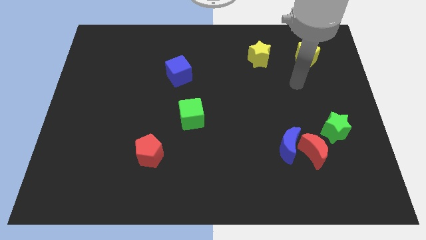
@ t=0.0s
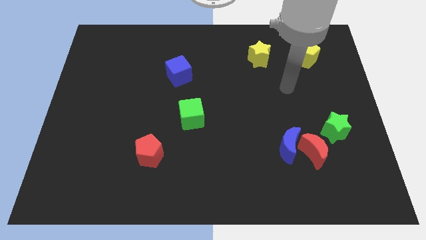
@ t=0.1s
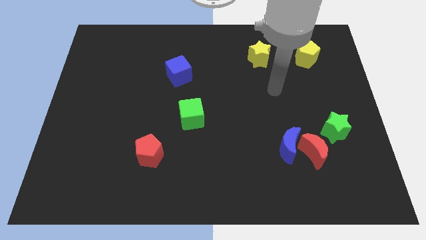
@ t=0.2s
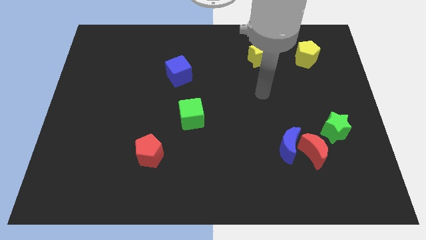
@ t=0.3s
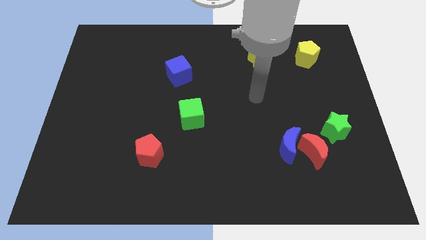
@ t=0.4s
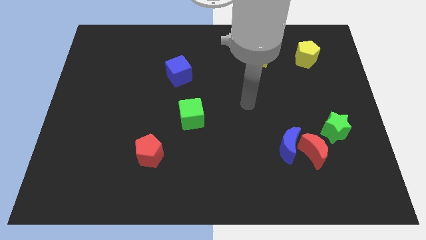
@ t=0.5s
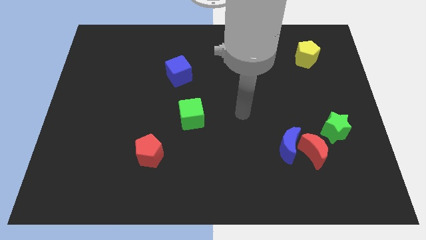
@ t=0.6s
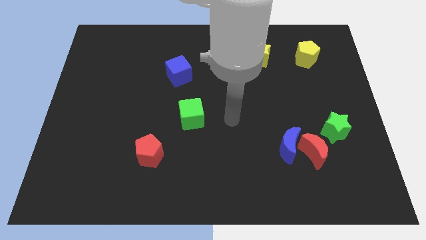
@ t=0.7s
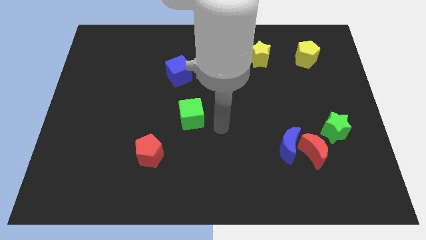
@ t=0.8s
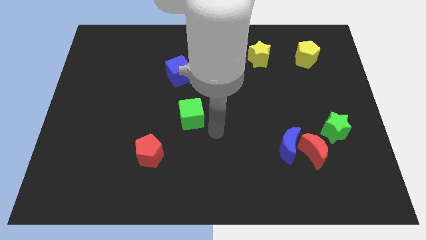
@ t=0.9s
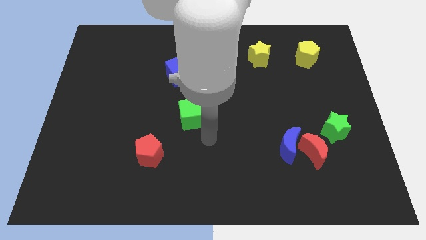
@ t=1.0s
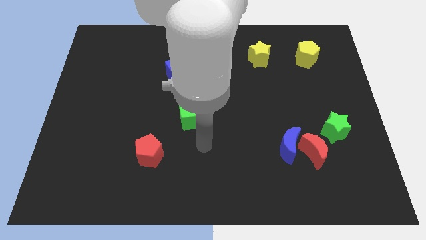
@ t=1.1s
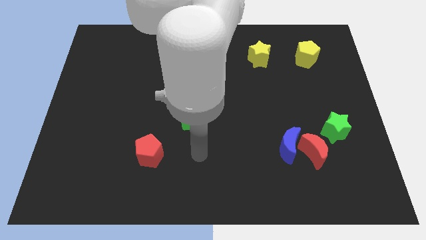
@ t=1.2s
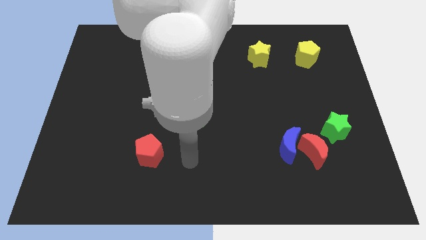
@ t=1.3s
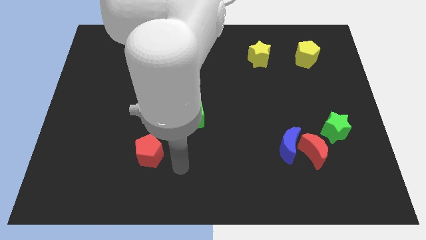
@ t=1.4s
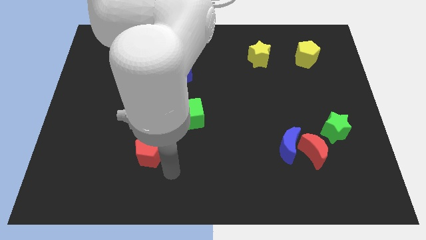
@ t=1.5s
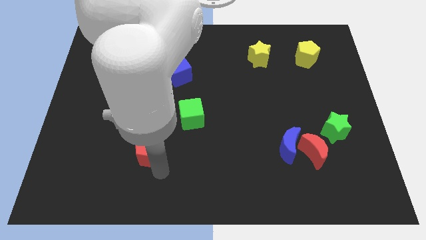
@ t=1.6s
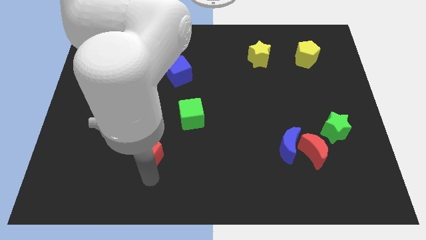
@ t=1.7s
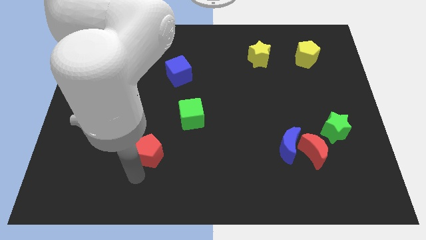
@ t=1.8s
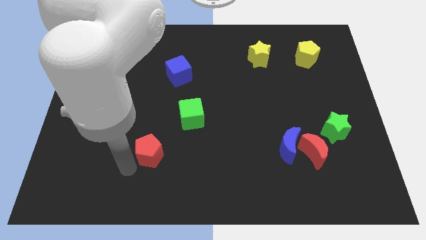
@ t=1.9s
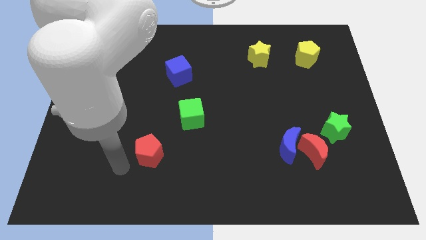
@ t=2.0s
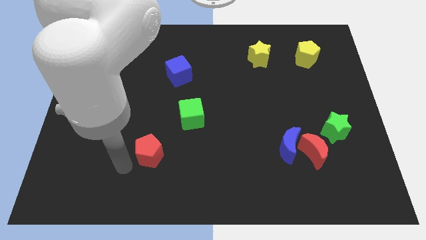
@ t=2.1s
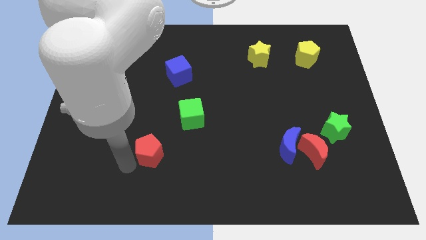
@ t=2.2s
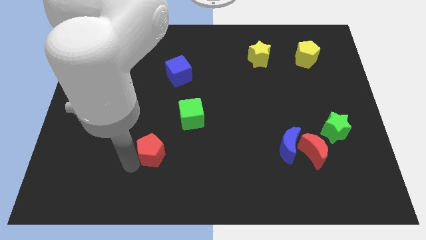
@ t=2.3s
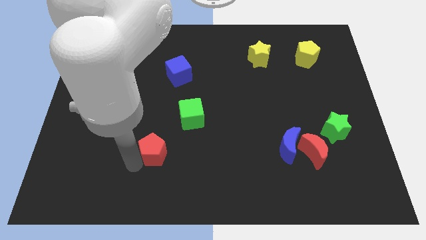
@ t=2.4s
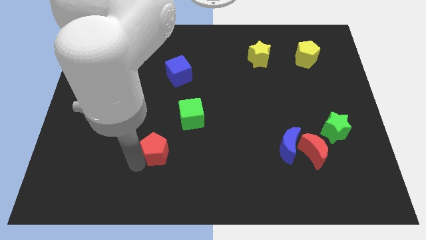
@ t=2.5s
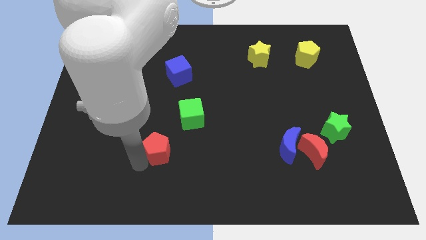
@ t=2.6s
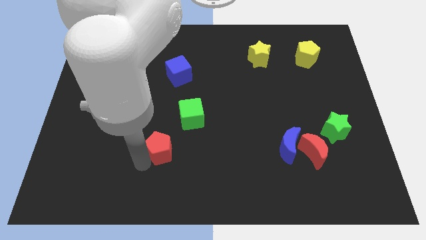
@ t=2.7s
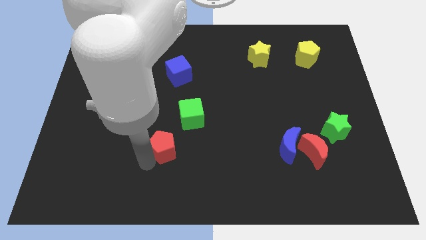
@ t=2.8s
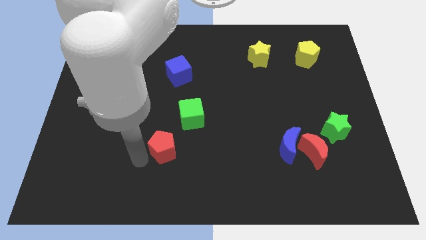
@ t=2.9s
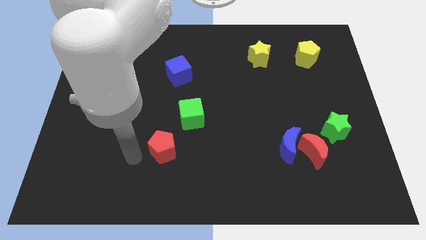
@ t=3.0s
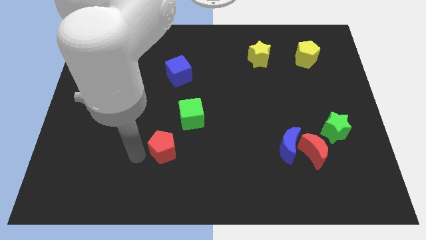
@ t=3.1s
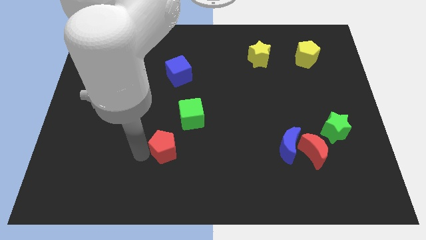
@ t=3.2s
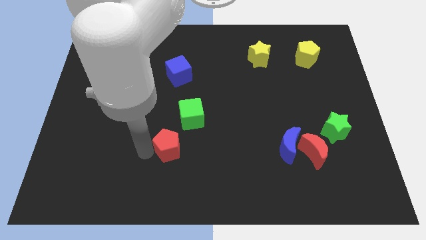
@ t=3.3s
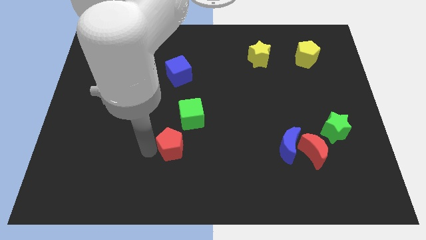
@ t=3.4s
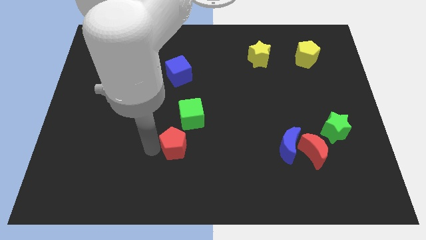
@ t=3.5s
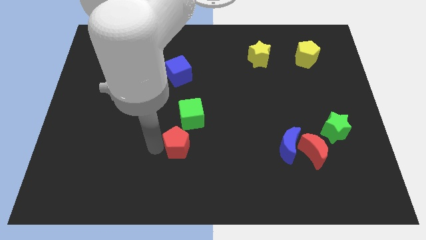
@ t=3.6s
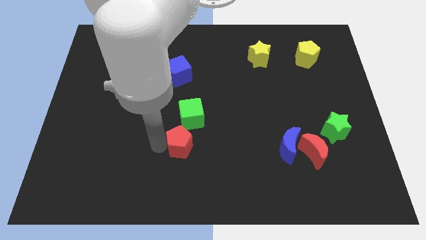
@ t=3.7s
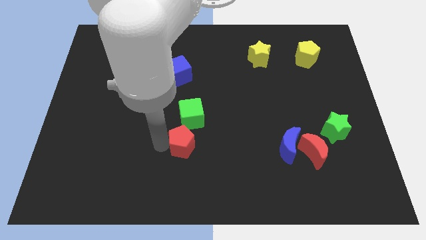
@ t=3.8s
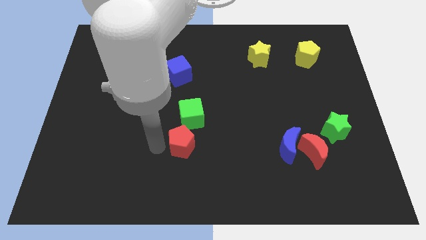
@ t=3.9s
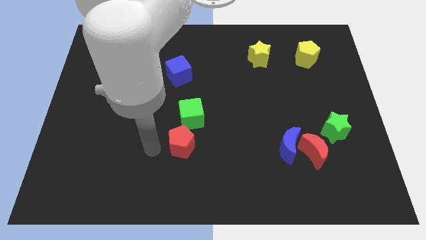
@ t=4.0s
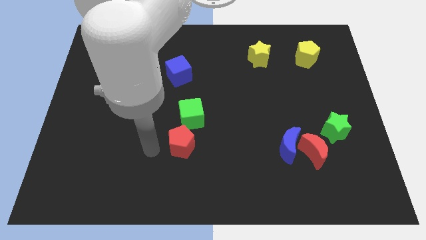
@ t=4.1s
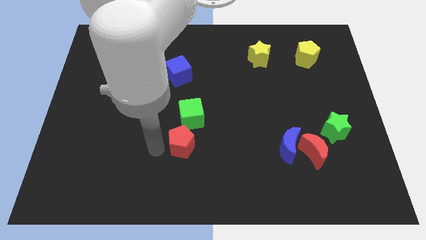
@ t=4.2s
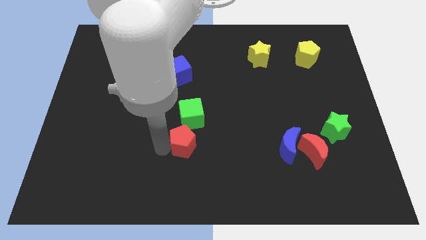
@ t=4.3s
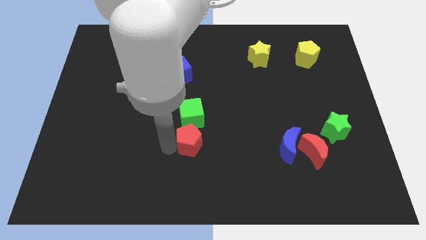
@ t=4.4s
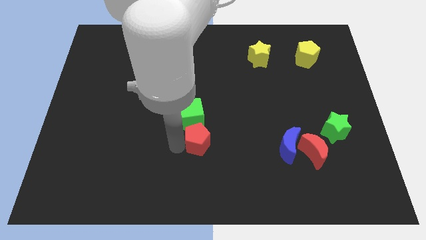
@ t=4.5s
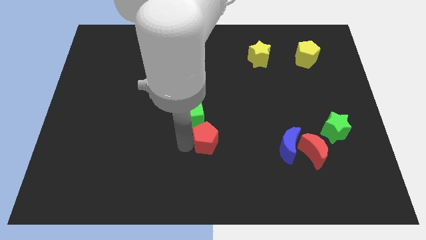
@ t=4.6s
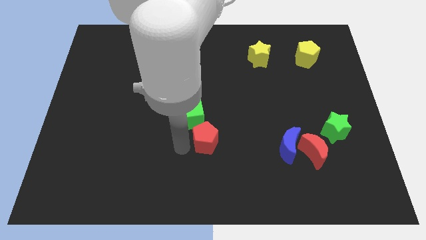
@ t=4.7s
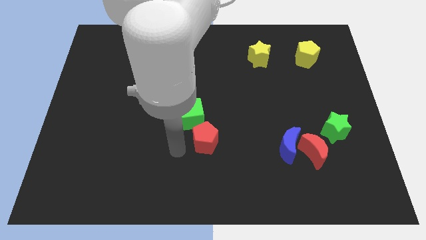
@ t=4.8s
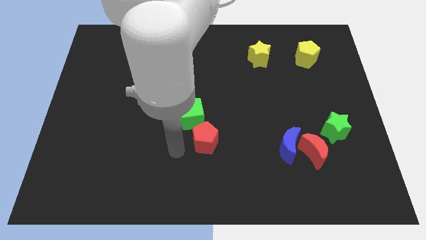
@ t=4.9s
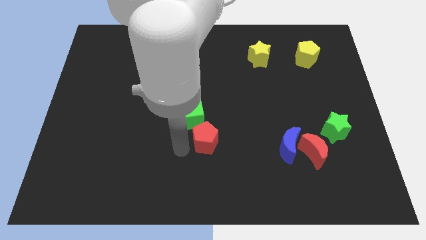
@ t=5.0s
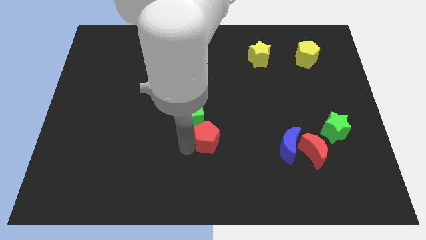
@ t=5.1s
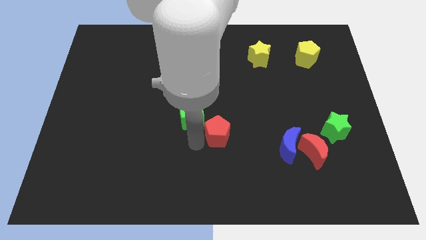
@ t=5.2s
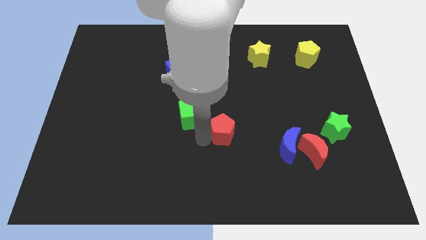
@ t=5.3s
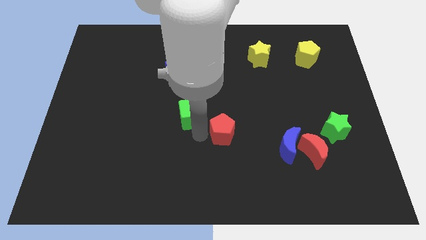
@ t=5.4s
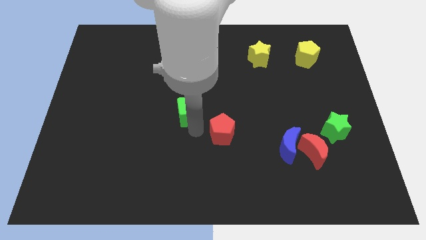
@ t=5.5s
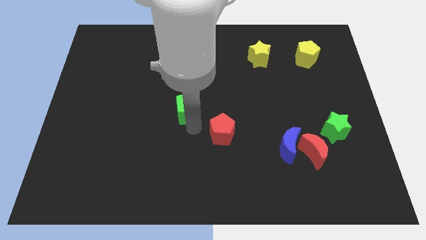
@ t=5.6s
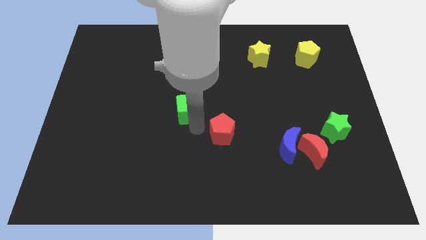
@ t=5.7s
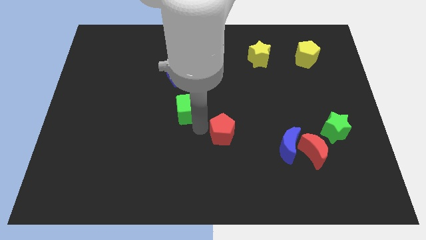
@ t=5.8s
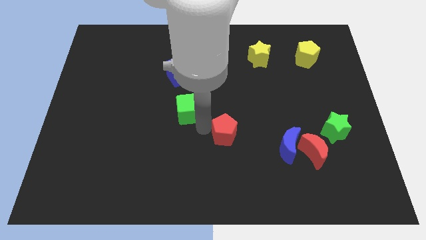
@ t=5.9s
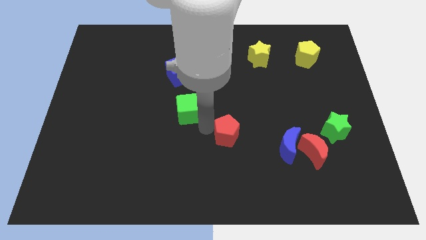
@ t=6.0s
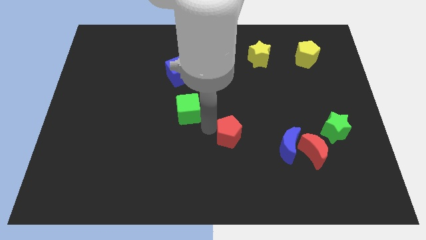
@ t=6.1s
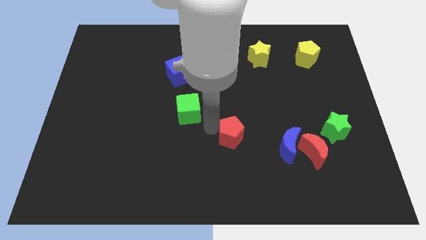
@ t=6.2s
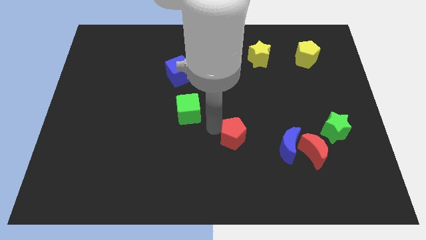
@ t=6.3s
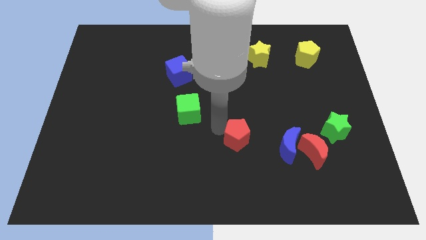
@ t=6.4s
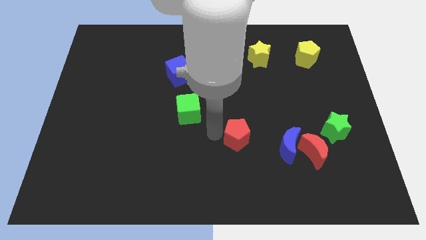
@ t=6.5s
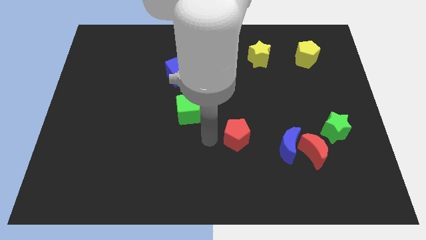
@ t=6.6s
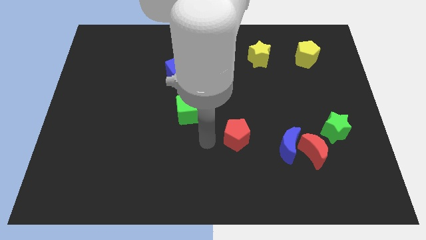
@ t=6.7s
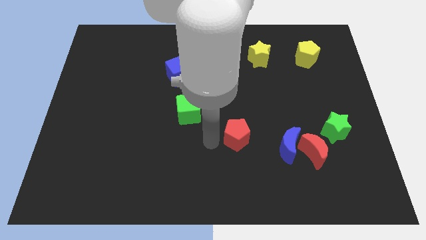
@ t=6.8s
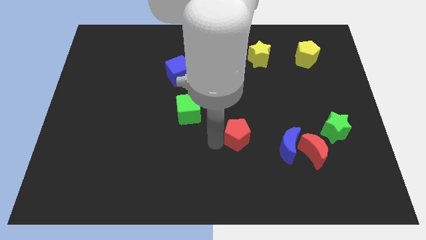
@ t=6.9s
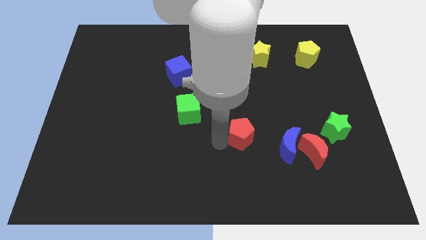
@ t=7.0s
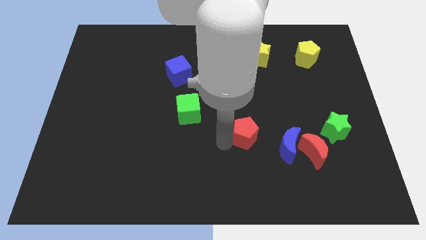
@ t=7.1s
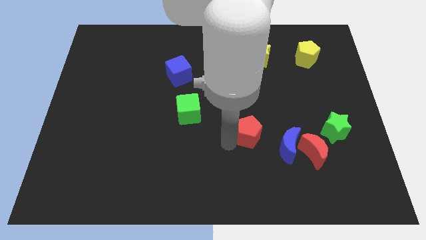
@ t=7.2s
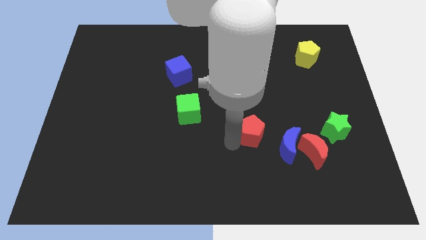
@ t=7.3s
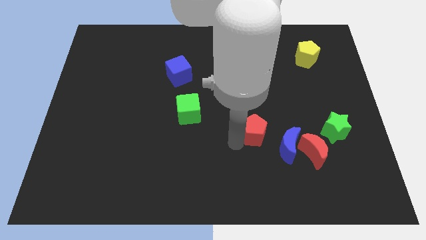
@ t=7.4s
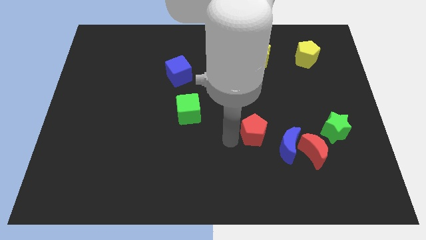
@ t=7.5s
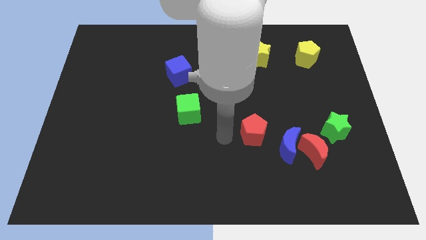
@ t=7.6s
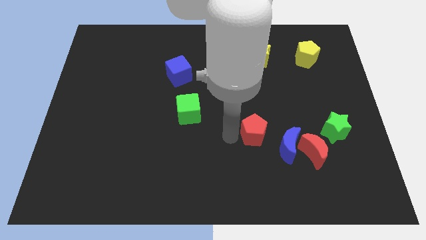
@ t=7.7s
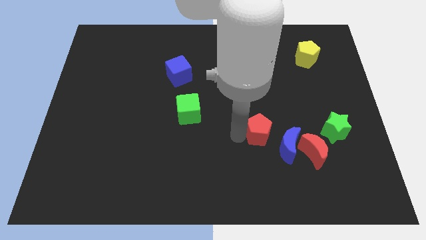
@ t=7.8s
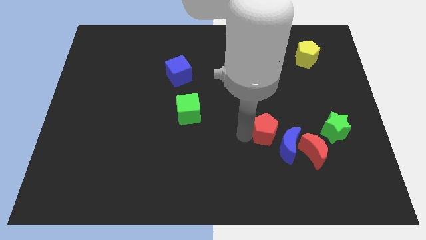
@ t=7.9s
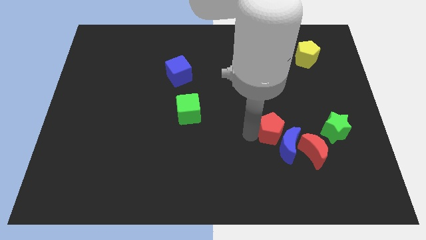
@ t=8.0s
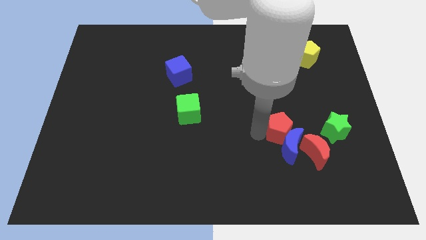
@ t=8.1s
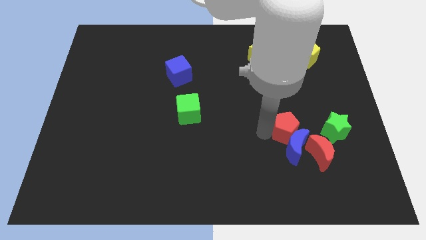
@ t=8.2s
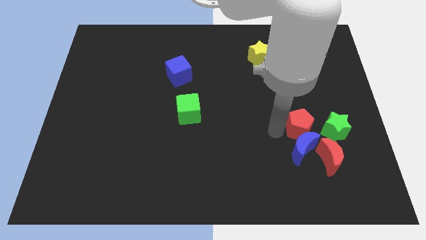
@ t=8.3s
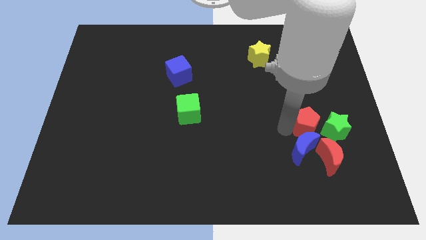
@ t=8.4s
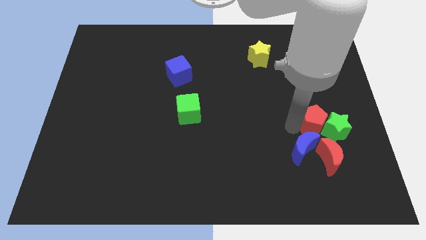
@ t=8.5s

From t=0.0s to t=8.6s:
put the red pentagon to the green star
